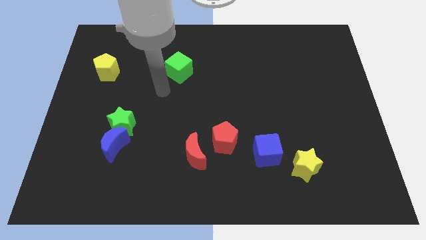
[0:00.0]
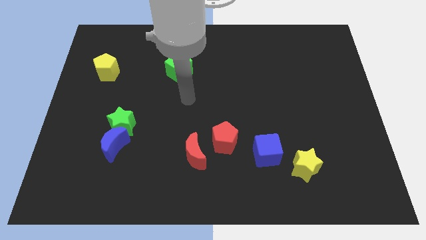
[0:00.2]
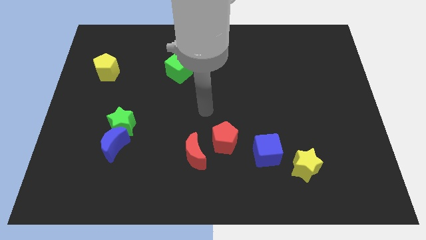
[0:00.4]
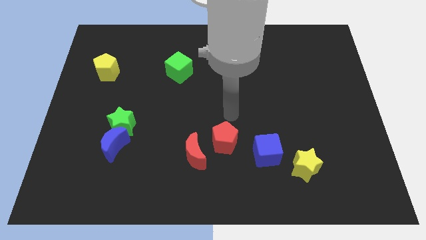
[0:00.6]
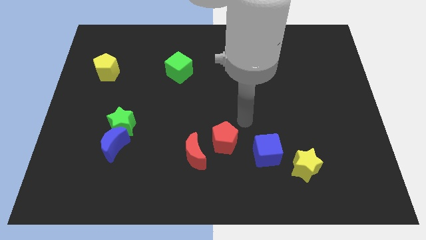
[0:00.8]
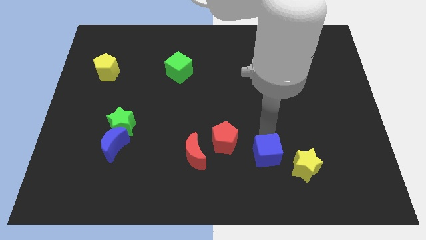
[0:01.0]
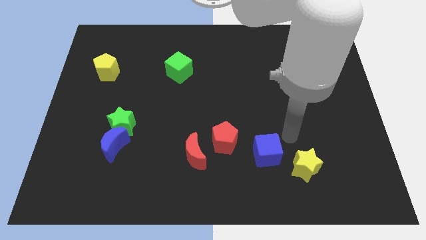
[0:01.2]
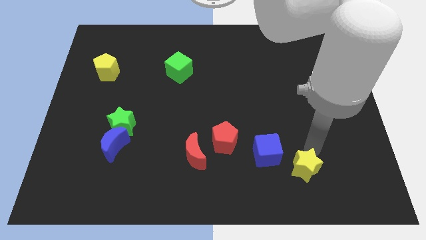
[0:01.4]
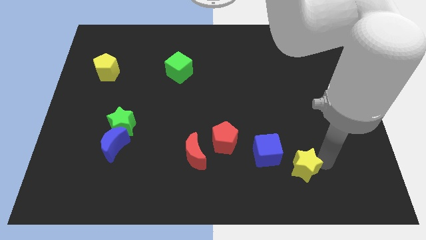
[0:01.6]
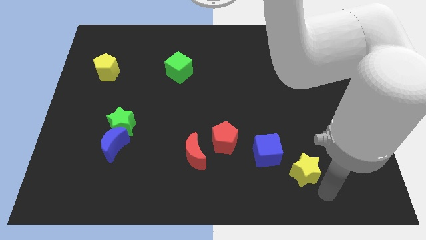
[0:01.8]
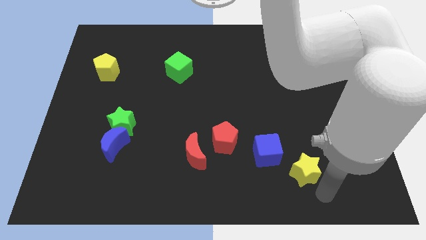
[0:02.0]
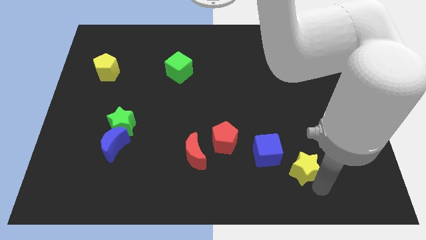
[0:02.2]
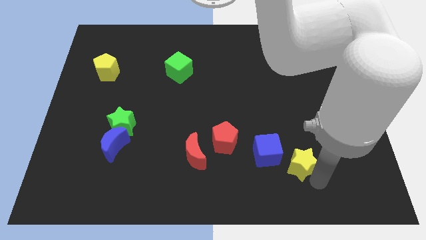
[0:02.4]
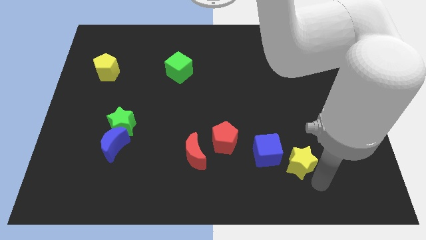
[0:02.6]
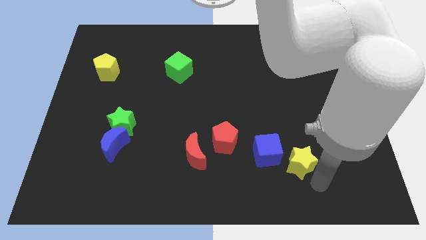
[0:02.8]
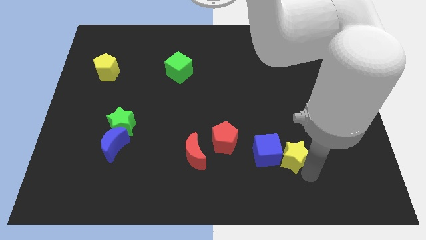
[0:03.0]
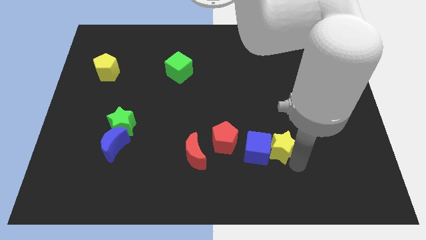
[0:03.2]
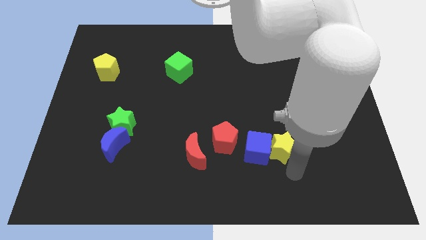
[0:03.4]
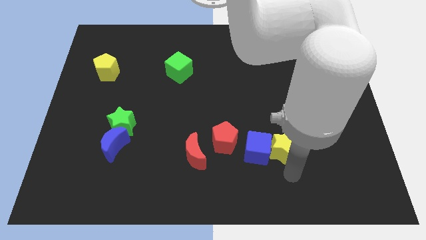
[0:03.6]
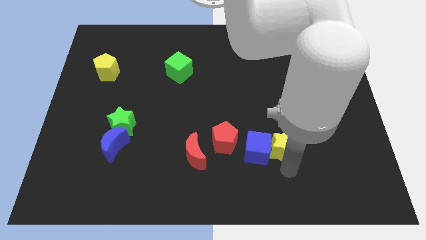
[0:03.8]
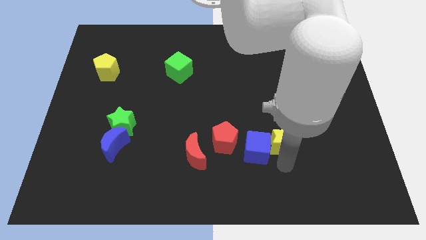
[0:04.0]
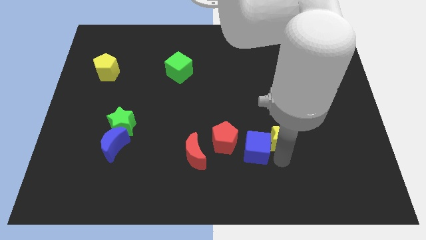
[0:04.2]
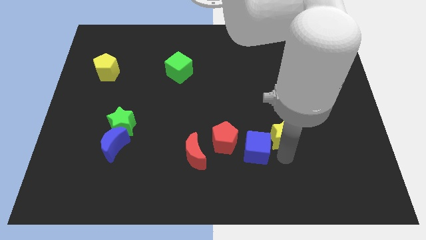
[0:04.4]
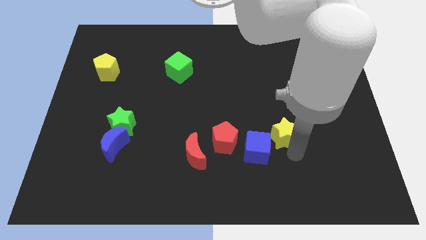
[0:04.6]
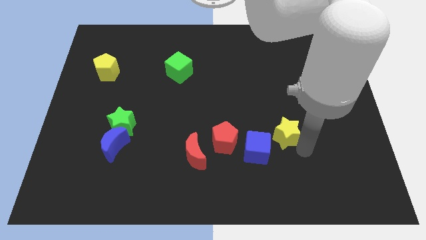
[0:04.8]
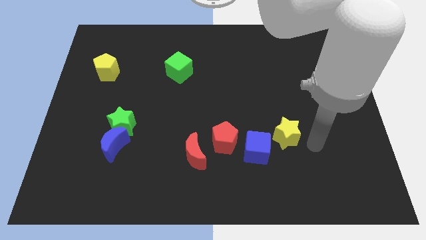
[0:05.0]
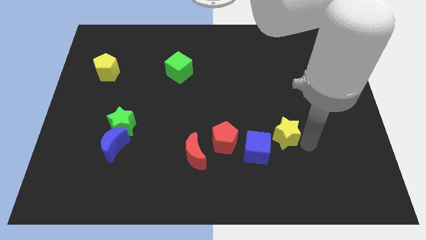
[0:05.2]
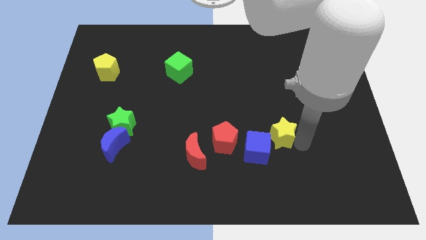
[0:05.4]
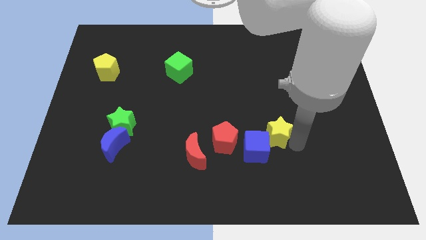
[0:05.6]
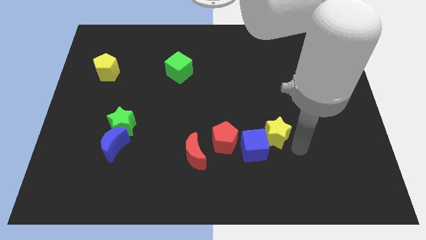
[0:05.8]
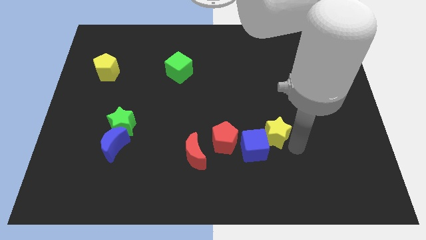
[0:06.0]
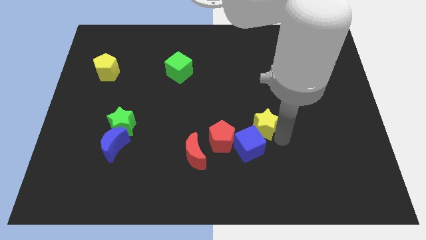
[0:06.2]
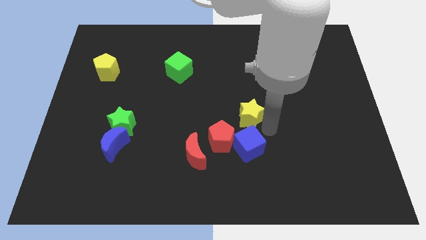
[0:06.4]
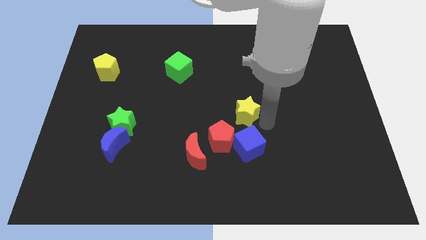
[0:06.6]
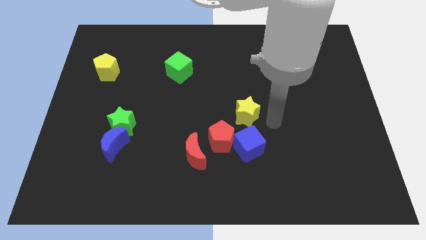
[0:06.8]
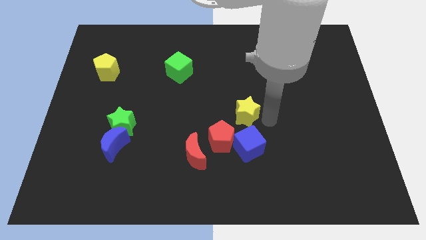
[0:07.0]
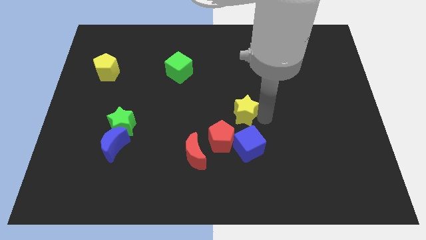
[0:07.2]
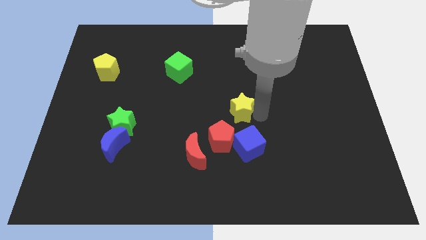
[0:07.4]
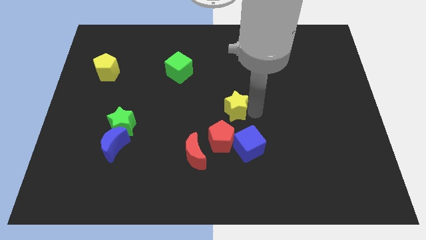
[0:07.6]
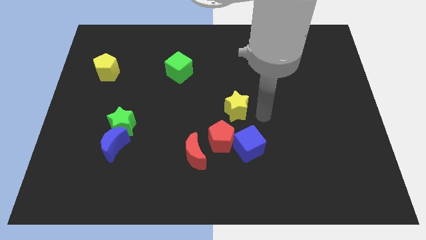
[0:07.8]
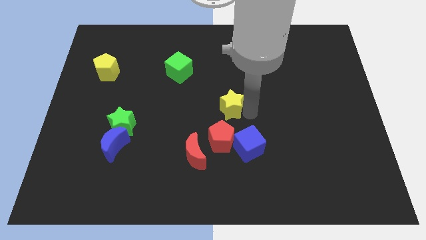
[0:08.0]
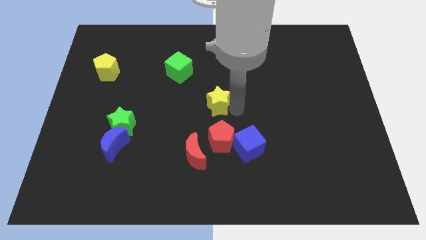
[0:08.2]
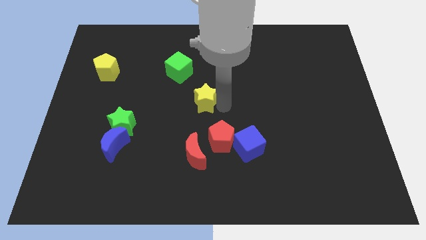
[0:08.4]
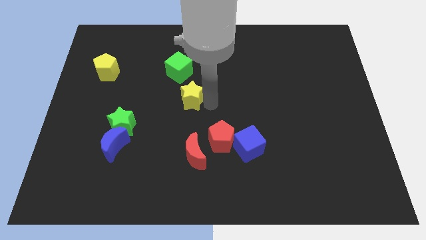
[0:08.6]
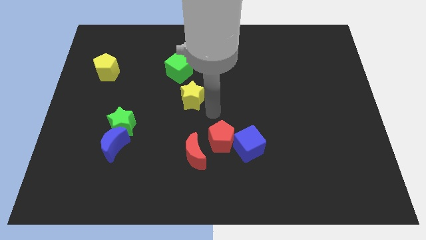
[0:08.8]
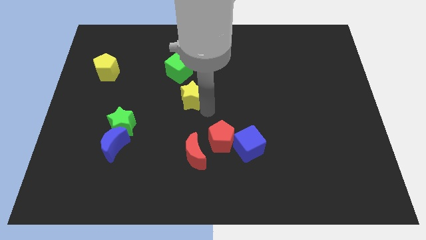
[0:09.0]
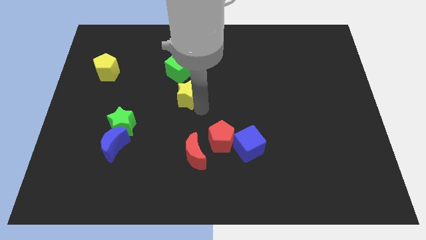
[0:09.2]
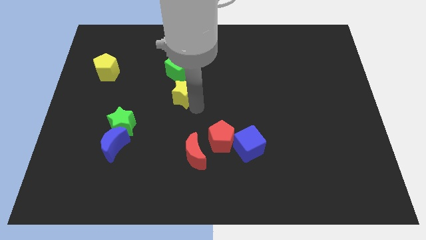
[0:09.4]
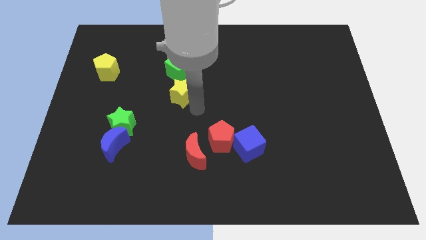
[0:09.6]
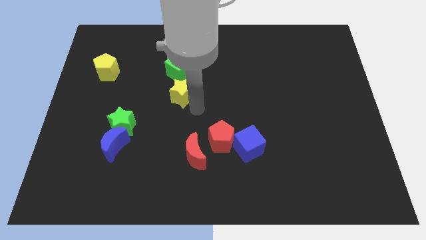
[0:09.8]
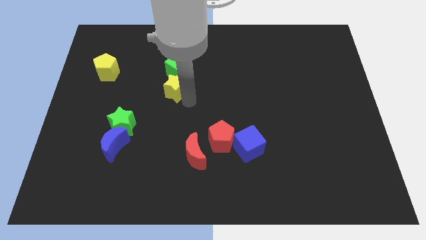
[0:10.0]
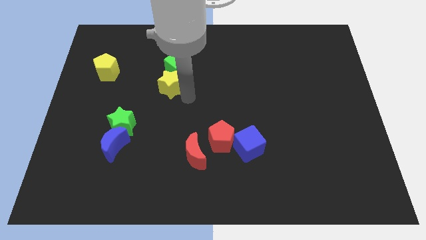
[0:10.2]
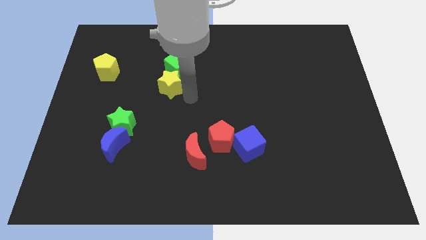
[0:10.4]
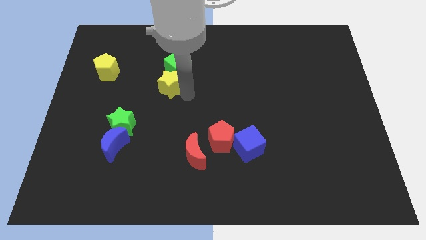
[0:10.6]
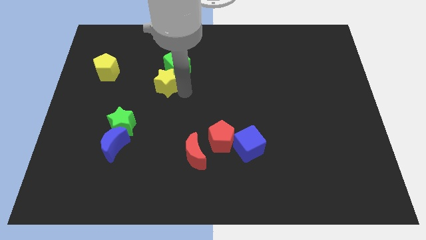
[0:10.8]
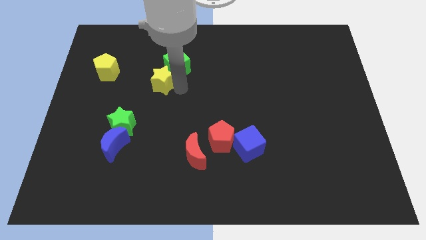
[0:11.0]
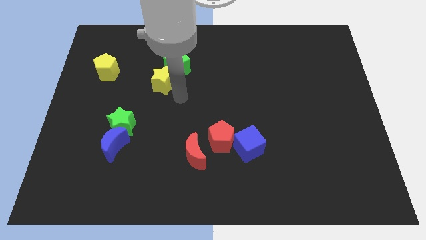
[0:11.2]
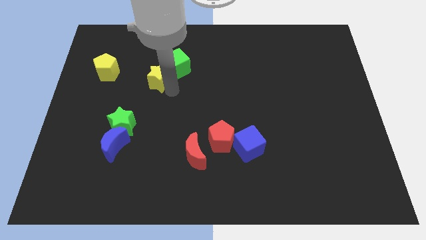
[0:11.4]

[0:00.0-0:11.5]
move the yellow star right of the yellow pentagon

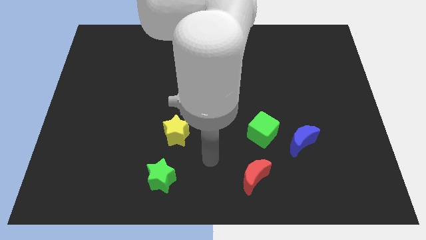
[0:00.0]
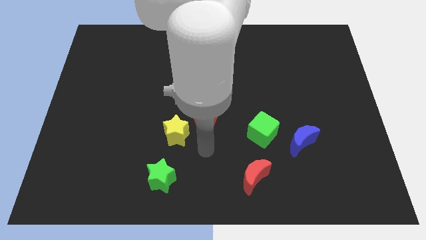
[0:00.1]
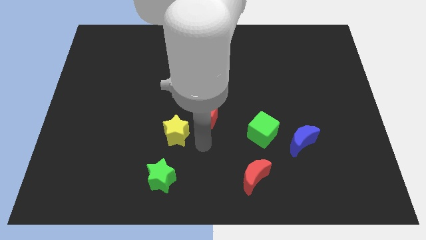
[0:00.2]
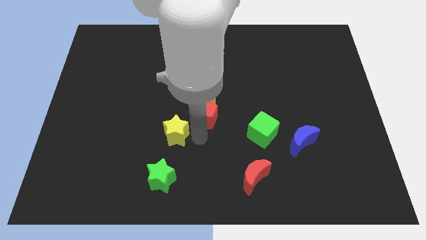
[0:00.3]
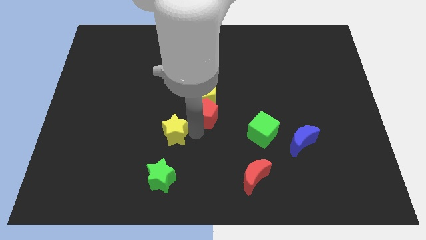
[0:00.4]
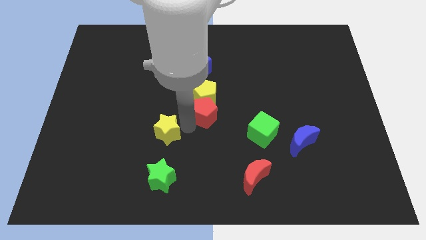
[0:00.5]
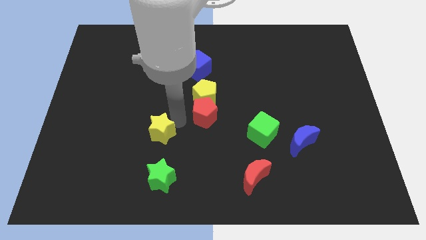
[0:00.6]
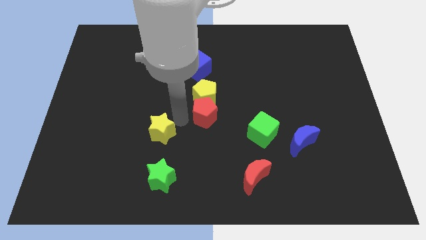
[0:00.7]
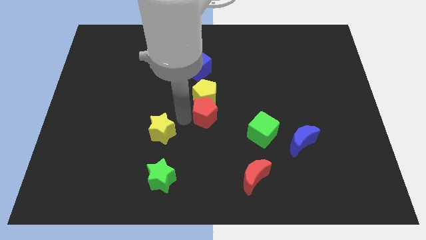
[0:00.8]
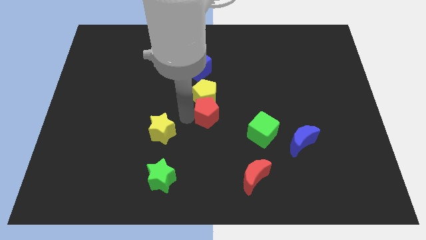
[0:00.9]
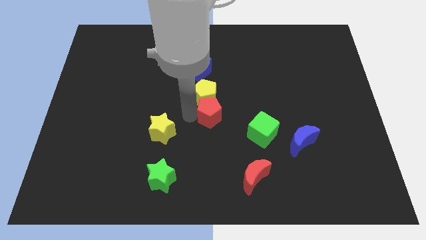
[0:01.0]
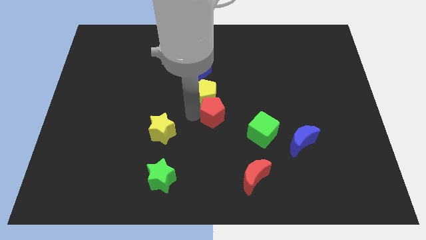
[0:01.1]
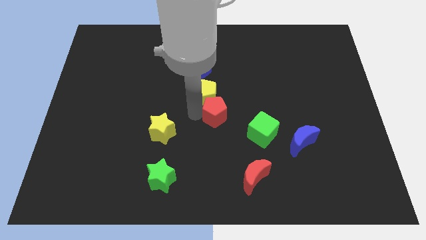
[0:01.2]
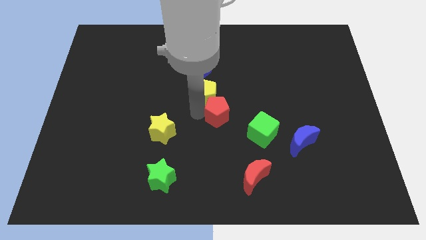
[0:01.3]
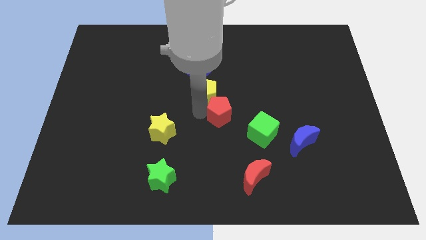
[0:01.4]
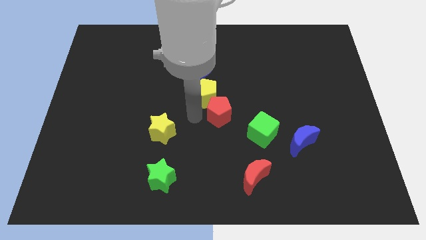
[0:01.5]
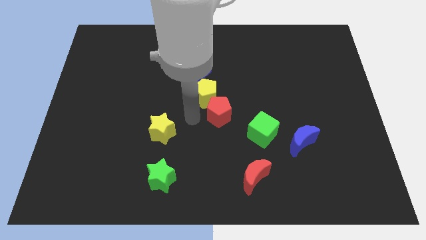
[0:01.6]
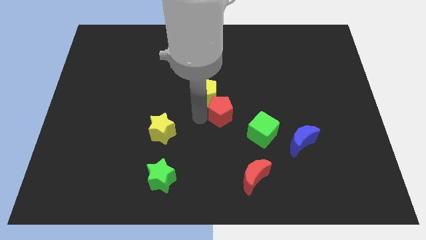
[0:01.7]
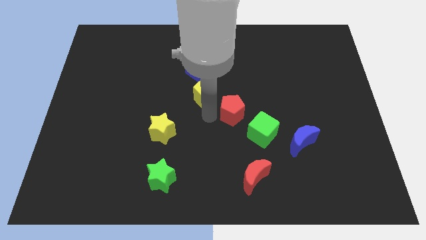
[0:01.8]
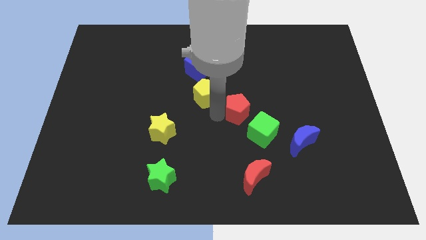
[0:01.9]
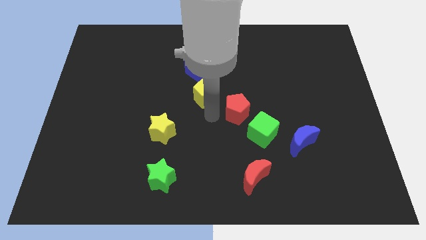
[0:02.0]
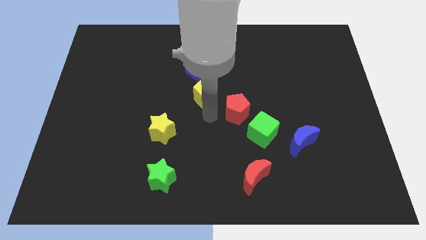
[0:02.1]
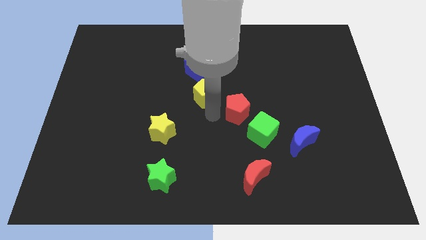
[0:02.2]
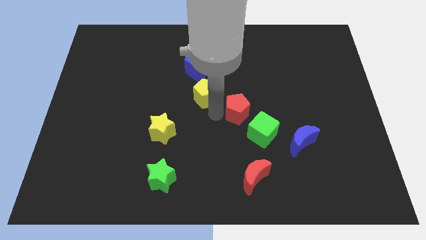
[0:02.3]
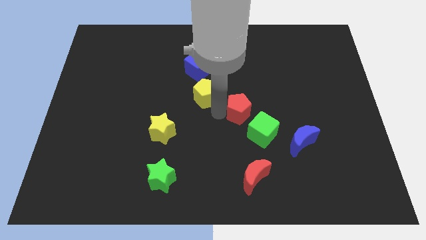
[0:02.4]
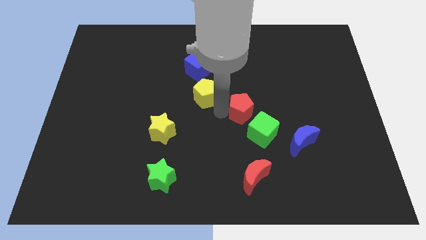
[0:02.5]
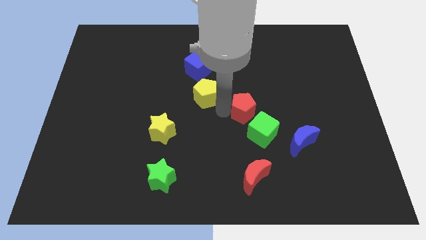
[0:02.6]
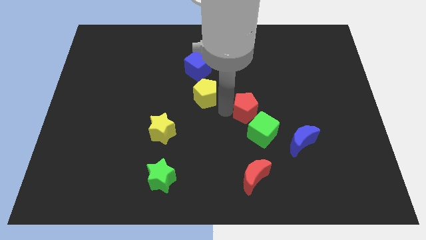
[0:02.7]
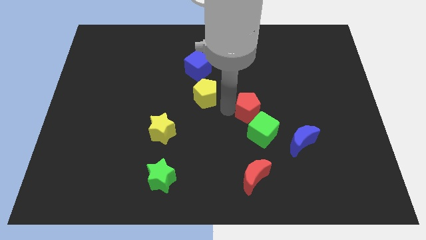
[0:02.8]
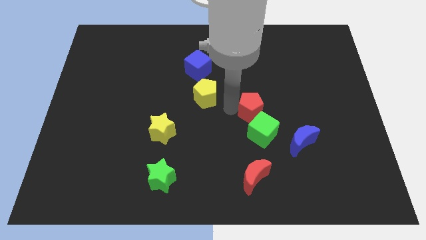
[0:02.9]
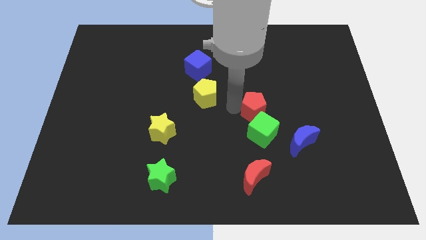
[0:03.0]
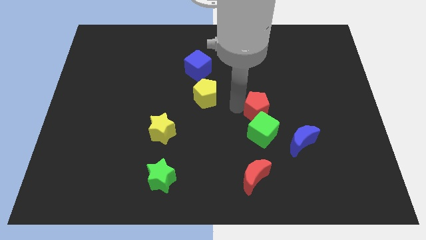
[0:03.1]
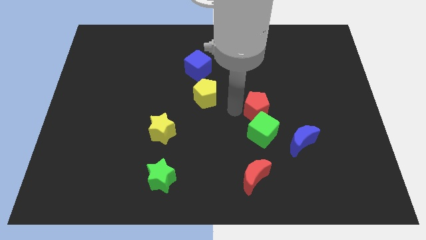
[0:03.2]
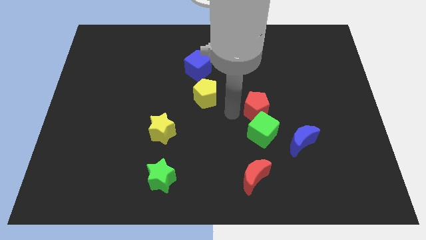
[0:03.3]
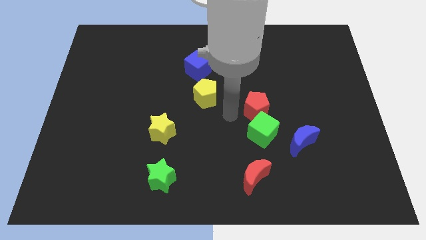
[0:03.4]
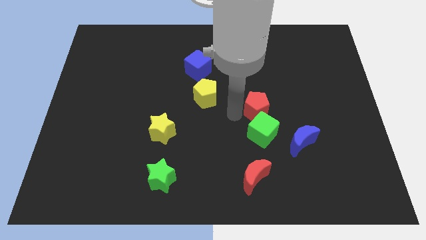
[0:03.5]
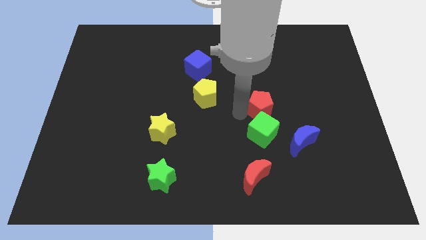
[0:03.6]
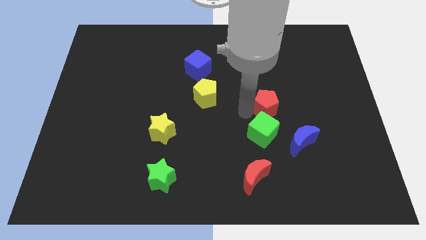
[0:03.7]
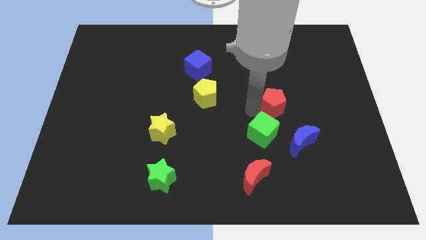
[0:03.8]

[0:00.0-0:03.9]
put the red pentagon above the blue moon
